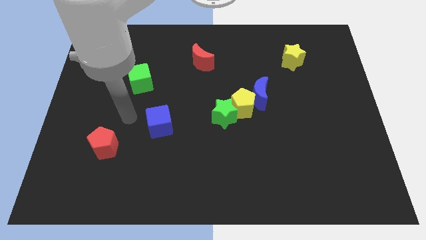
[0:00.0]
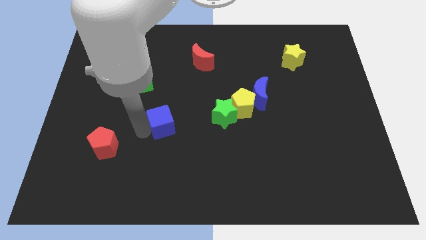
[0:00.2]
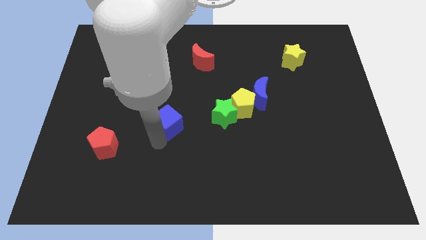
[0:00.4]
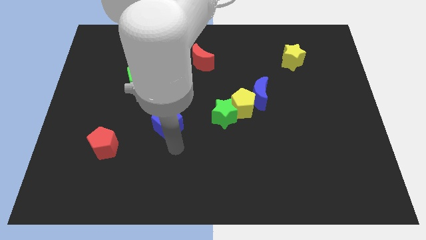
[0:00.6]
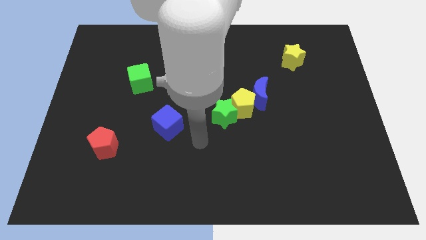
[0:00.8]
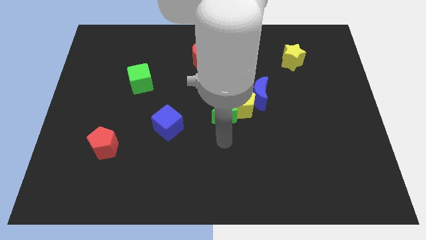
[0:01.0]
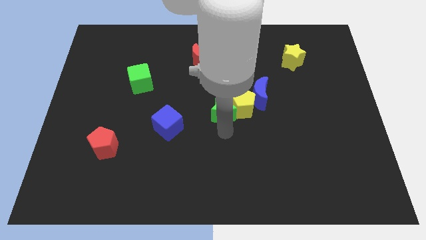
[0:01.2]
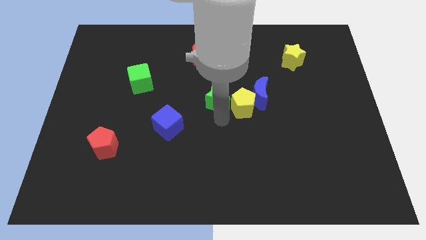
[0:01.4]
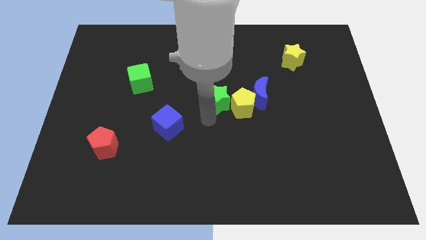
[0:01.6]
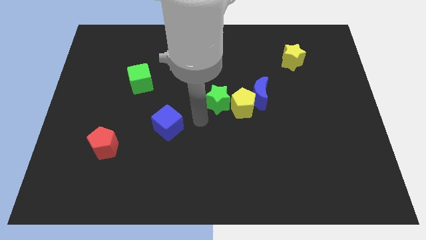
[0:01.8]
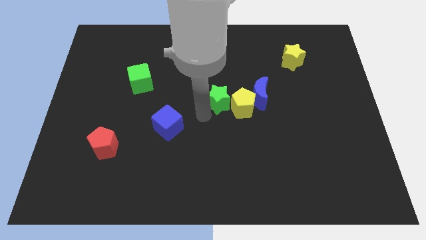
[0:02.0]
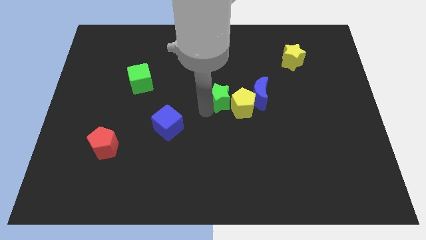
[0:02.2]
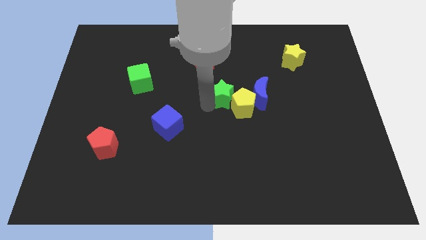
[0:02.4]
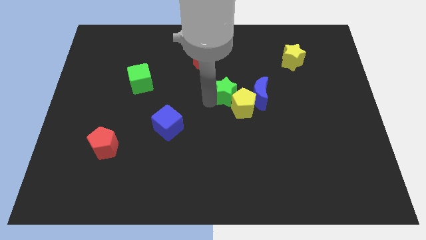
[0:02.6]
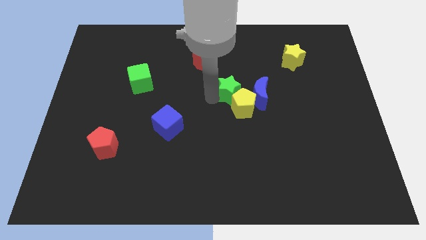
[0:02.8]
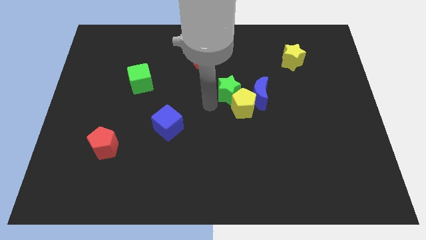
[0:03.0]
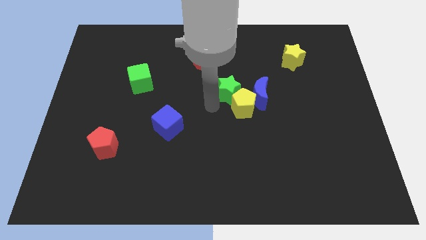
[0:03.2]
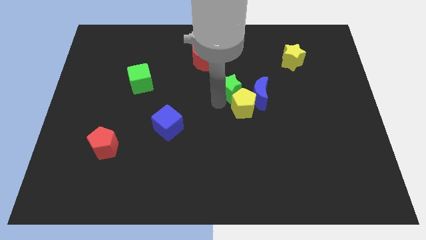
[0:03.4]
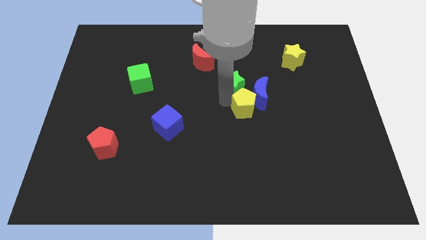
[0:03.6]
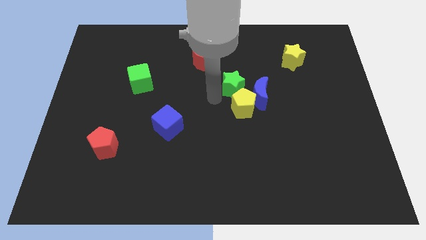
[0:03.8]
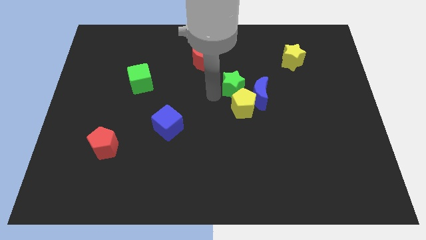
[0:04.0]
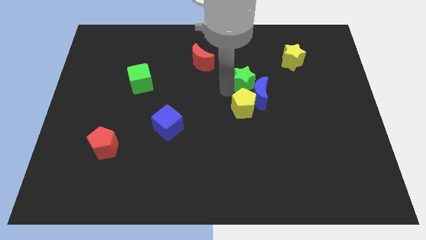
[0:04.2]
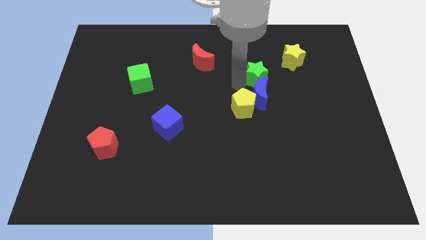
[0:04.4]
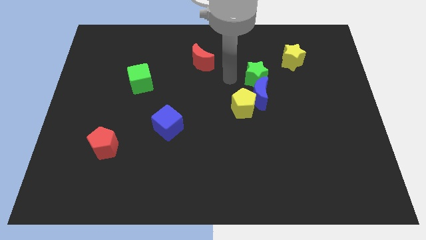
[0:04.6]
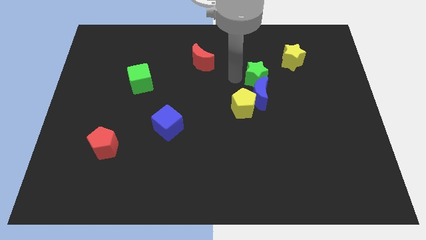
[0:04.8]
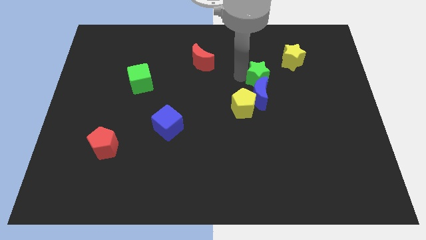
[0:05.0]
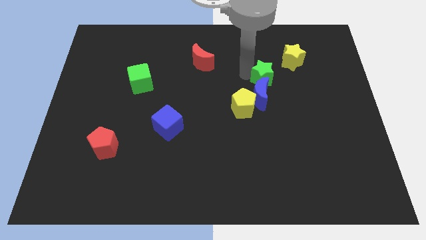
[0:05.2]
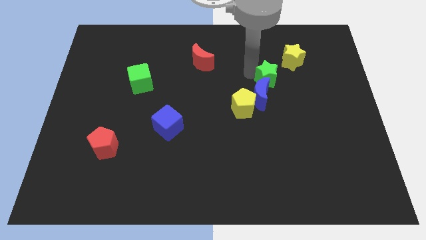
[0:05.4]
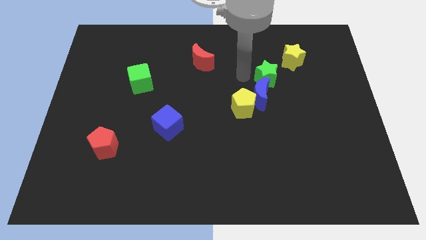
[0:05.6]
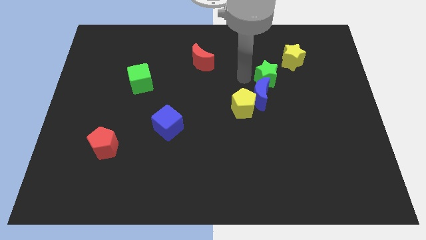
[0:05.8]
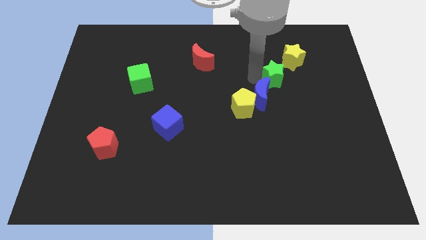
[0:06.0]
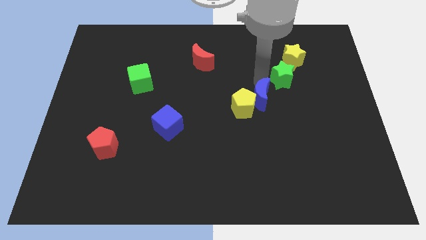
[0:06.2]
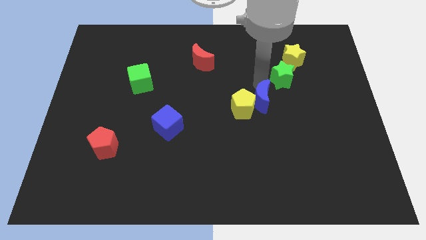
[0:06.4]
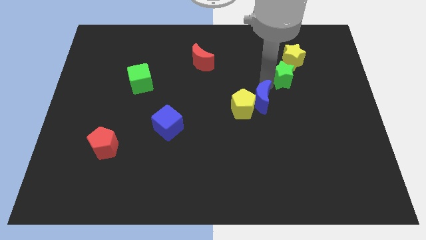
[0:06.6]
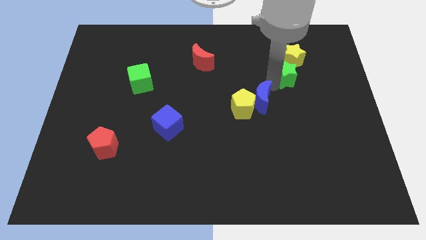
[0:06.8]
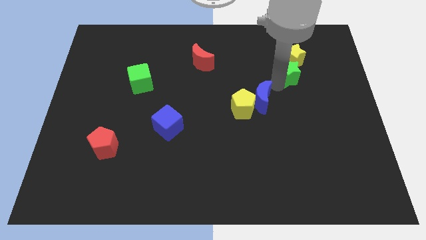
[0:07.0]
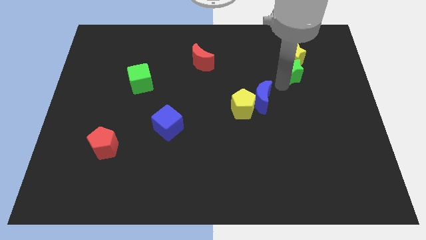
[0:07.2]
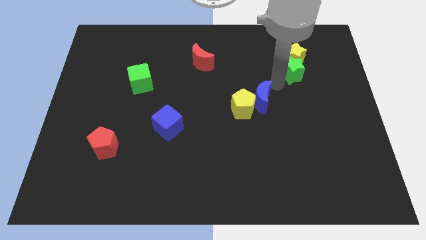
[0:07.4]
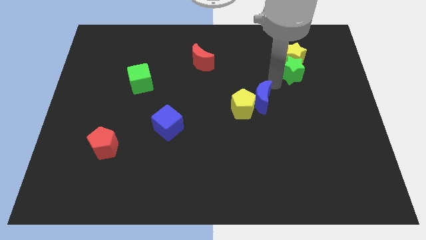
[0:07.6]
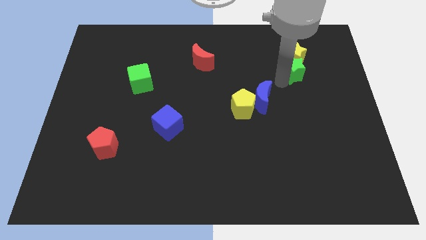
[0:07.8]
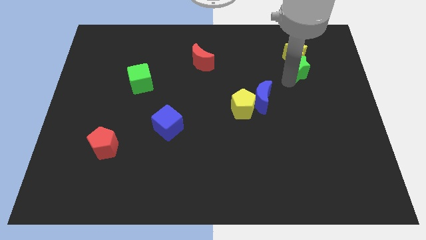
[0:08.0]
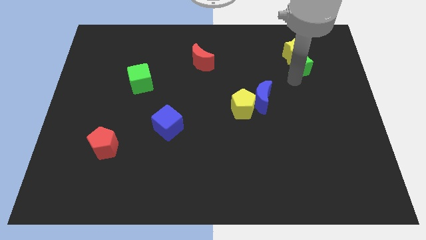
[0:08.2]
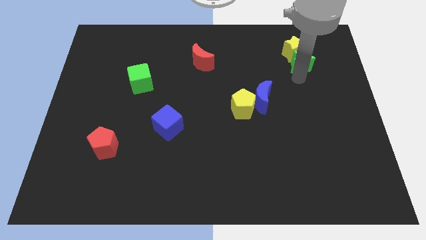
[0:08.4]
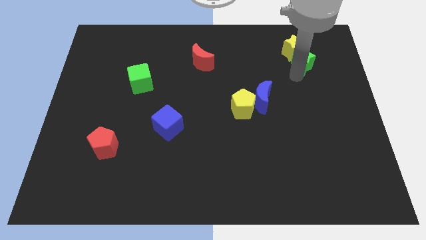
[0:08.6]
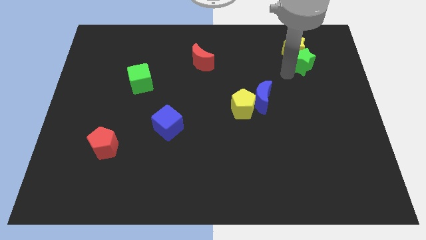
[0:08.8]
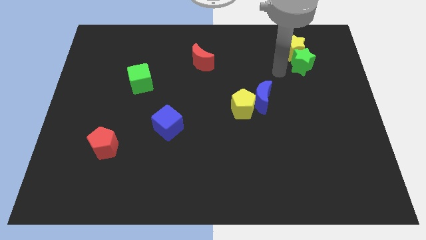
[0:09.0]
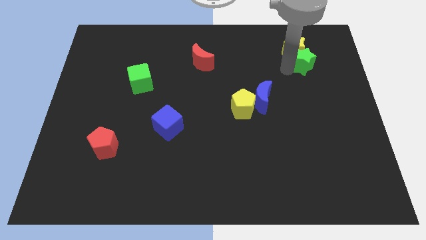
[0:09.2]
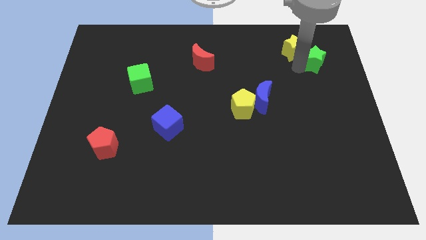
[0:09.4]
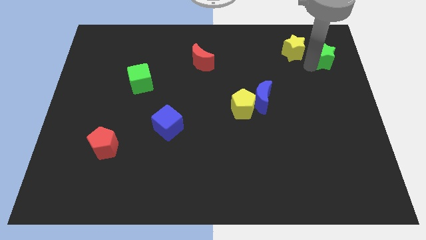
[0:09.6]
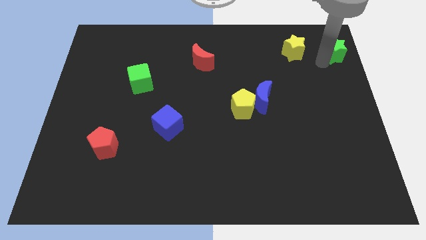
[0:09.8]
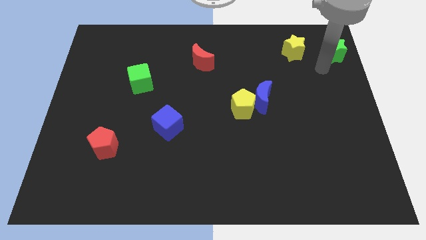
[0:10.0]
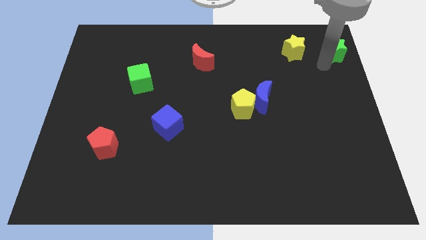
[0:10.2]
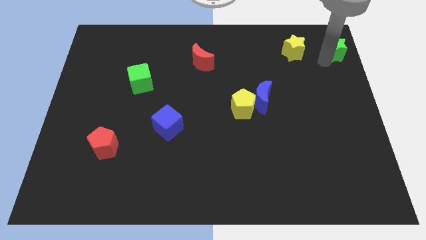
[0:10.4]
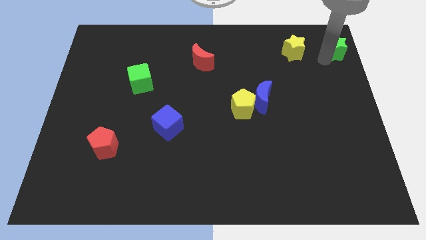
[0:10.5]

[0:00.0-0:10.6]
put the green star to the top right corner

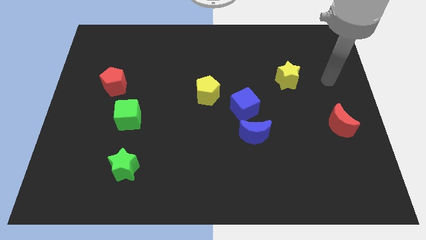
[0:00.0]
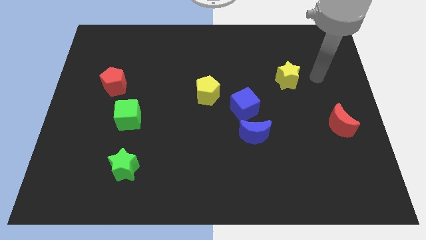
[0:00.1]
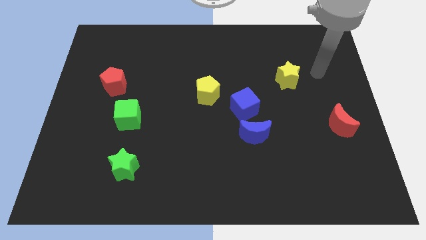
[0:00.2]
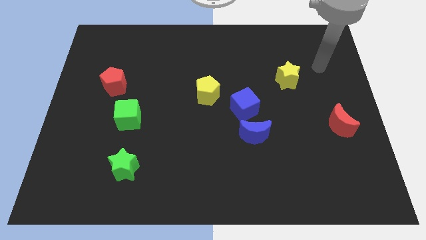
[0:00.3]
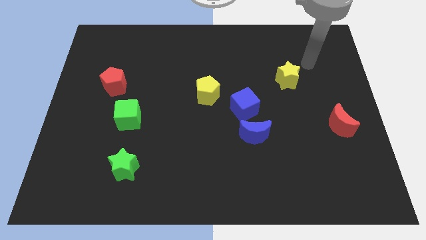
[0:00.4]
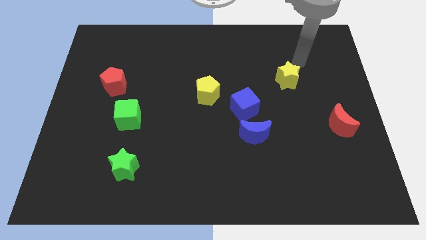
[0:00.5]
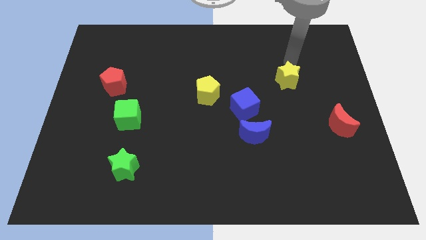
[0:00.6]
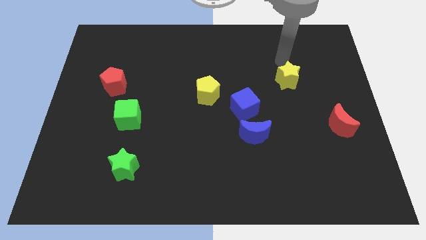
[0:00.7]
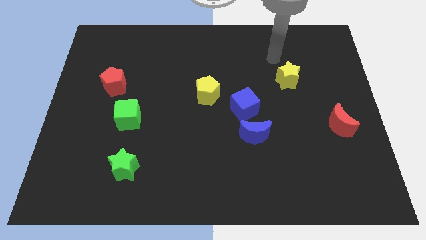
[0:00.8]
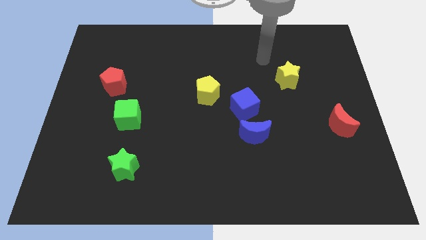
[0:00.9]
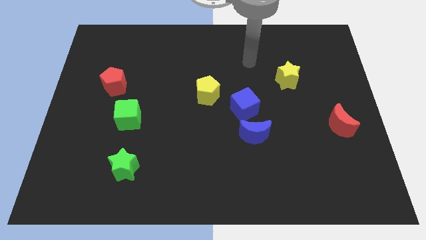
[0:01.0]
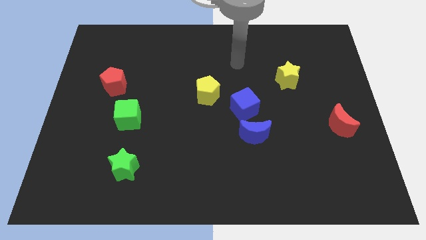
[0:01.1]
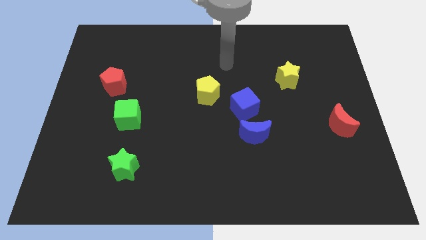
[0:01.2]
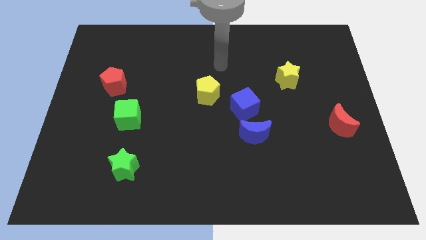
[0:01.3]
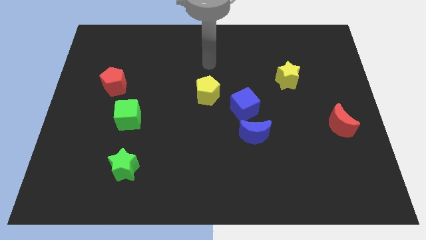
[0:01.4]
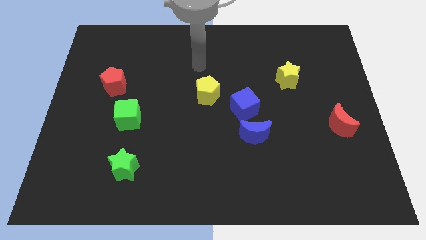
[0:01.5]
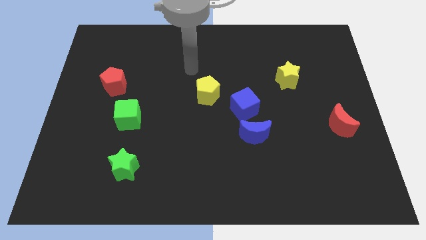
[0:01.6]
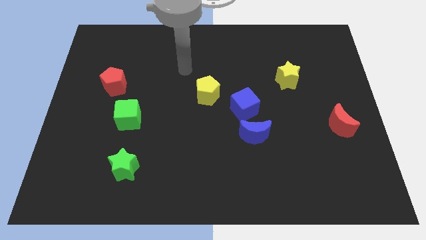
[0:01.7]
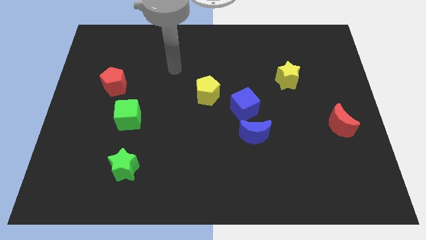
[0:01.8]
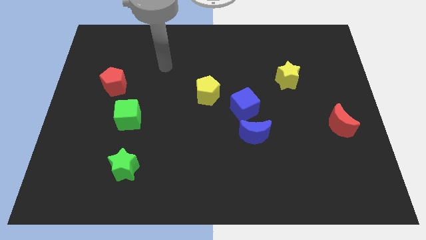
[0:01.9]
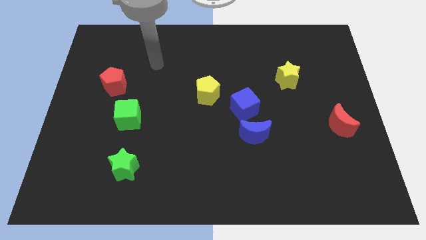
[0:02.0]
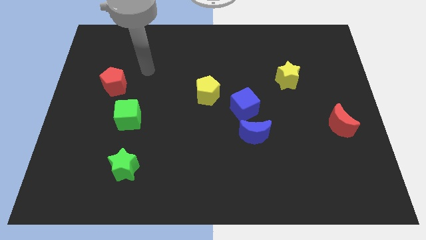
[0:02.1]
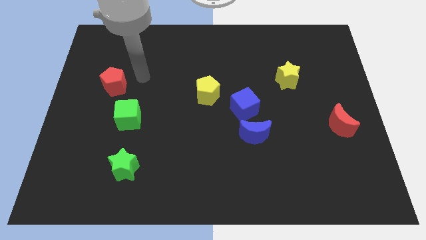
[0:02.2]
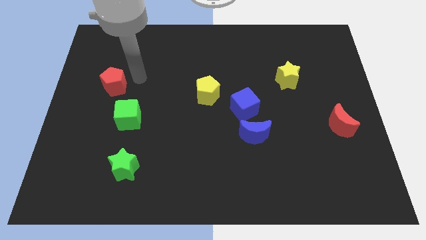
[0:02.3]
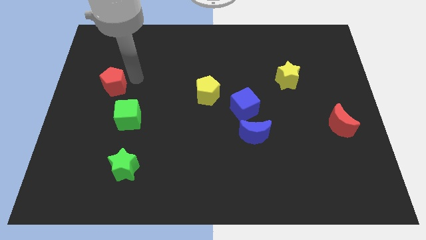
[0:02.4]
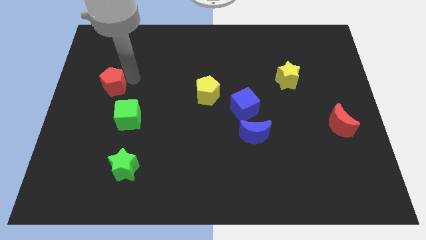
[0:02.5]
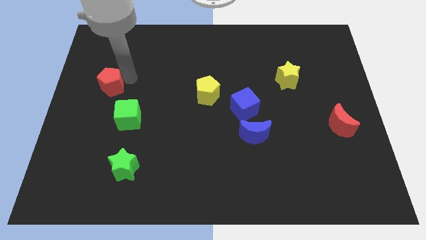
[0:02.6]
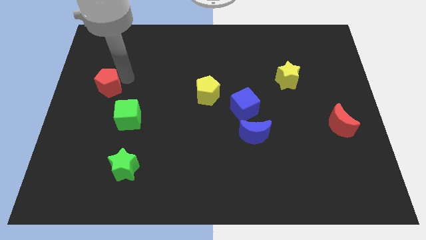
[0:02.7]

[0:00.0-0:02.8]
put the red pentagon to the center left
